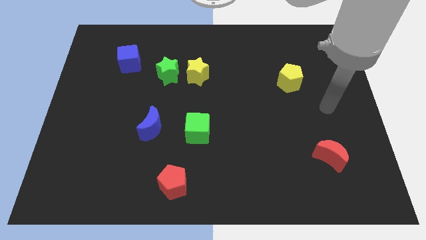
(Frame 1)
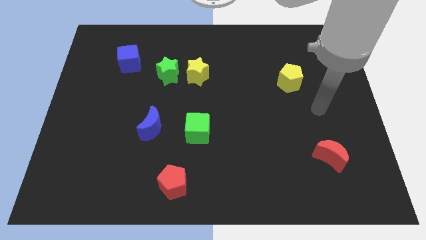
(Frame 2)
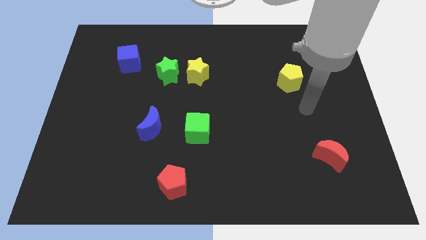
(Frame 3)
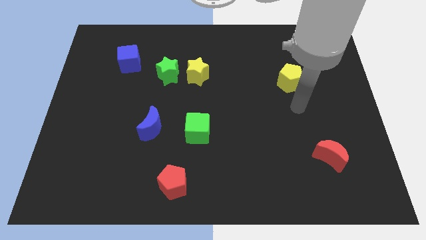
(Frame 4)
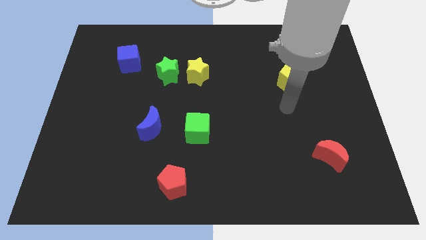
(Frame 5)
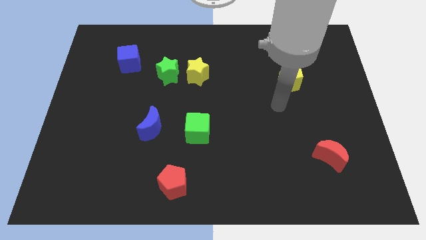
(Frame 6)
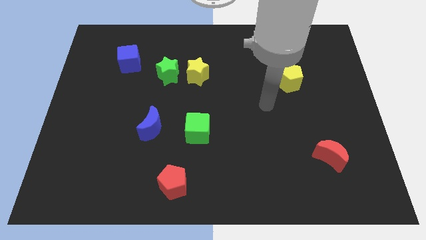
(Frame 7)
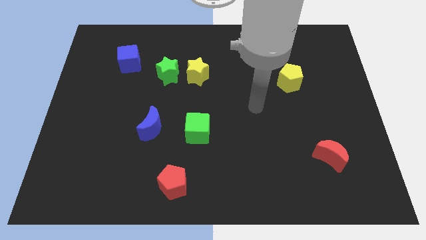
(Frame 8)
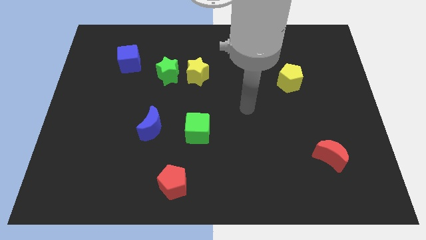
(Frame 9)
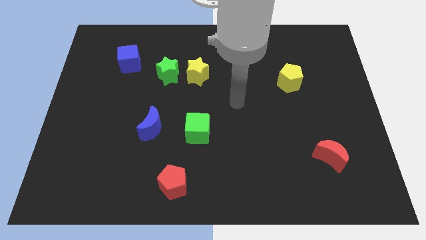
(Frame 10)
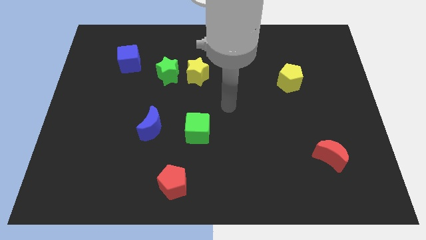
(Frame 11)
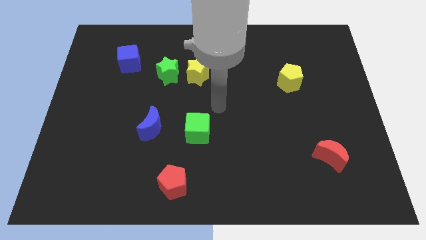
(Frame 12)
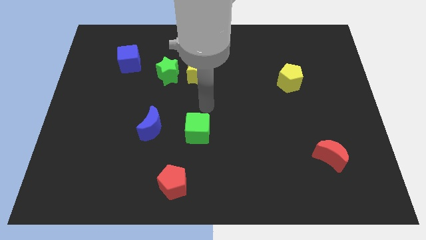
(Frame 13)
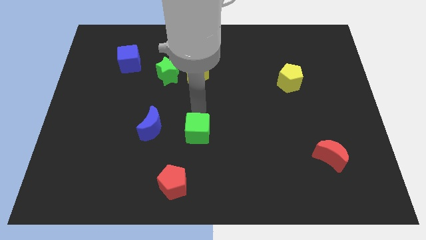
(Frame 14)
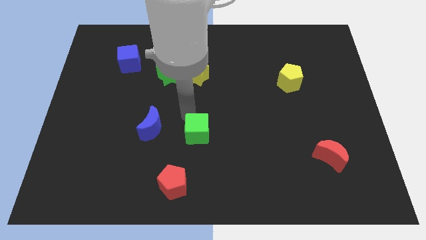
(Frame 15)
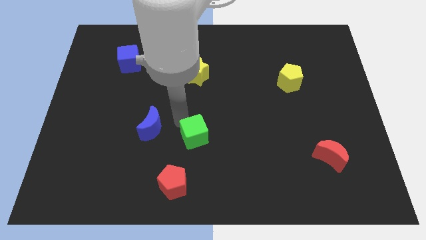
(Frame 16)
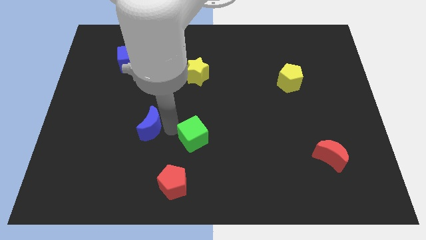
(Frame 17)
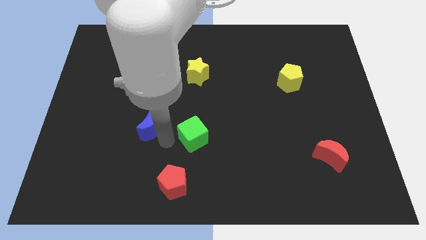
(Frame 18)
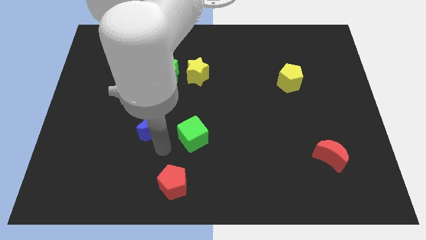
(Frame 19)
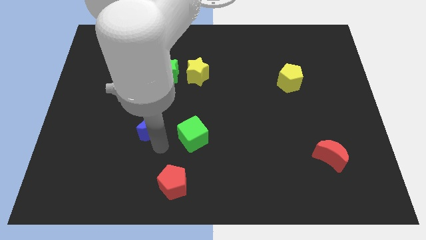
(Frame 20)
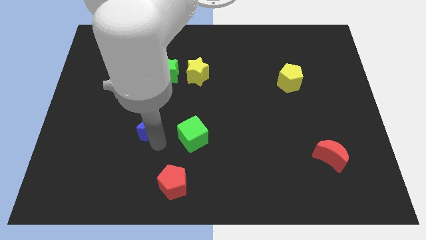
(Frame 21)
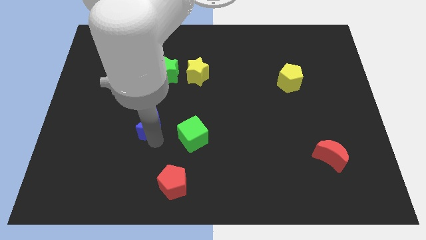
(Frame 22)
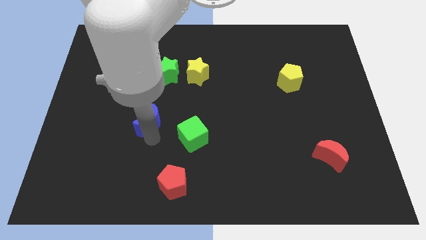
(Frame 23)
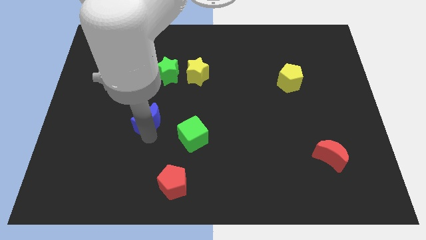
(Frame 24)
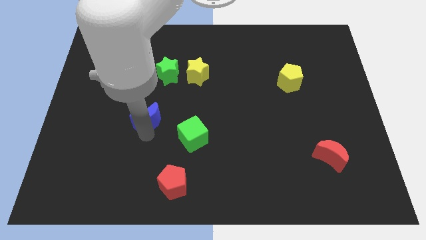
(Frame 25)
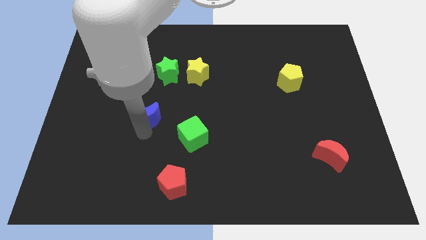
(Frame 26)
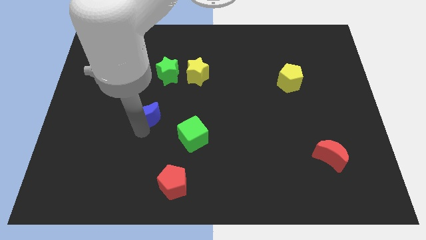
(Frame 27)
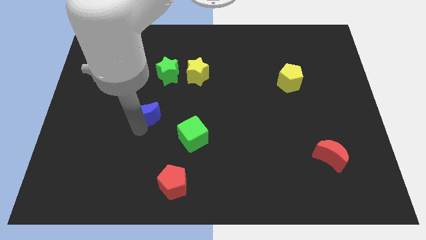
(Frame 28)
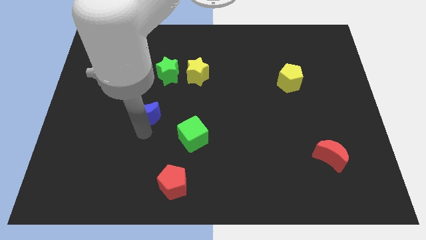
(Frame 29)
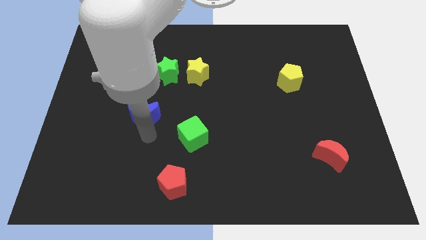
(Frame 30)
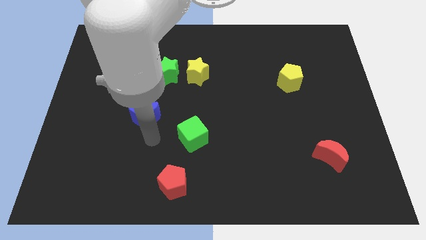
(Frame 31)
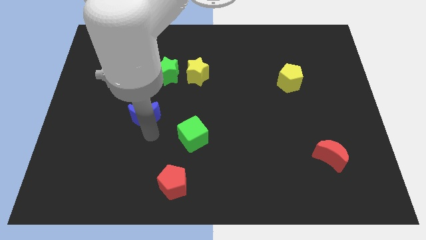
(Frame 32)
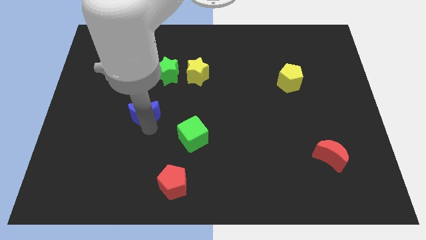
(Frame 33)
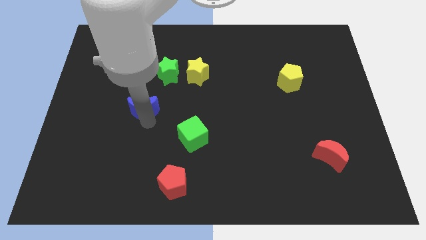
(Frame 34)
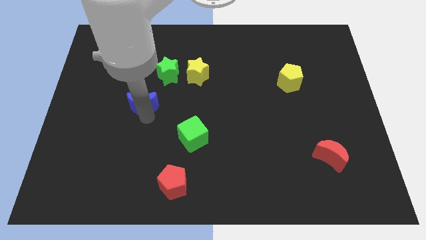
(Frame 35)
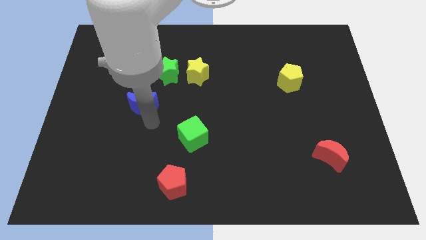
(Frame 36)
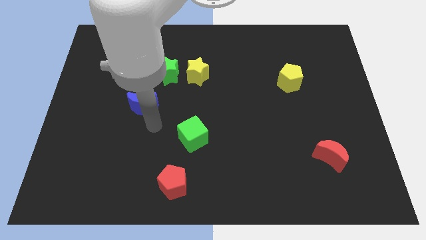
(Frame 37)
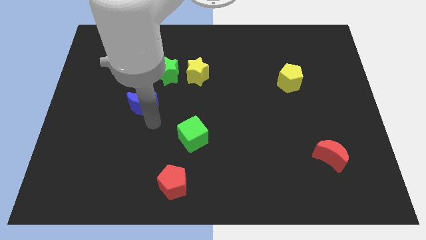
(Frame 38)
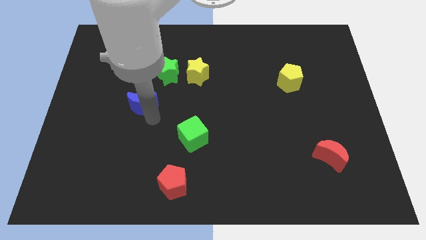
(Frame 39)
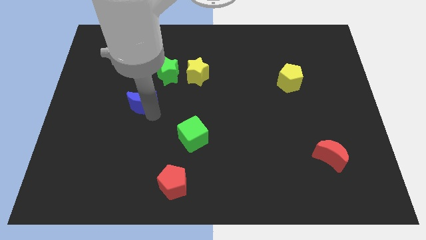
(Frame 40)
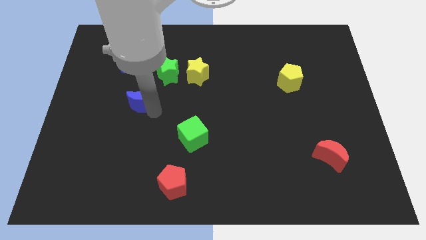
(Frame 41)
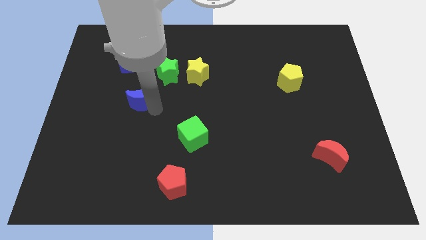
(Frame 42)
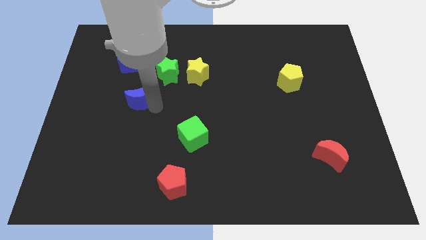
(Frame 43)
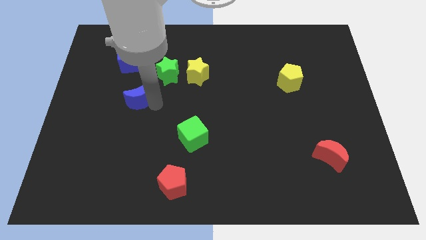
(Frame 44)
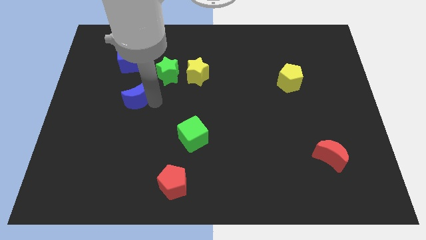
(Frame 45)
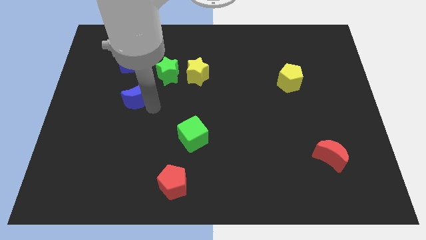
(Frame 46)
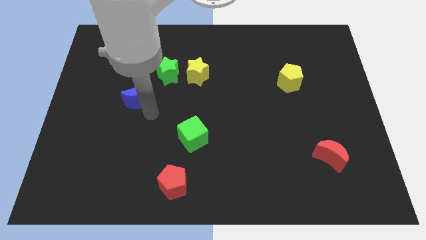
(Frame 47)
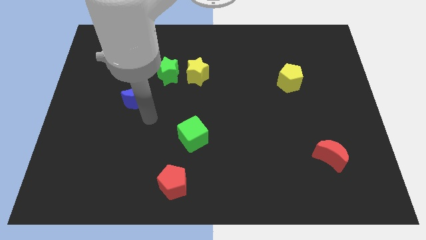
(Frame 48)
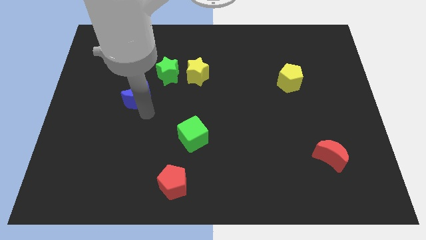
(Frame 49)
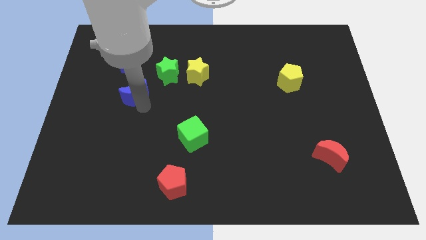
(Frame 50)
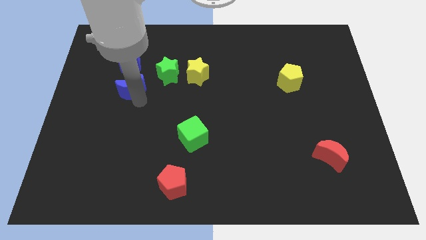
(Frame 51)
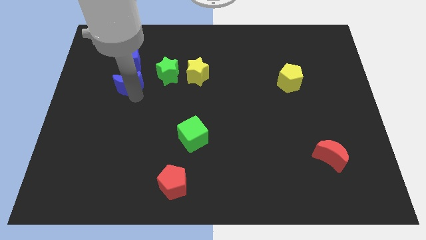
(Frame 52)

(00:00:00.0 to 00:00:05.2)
push the blue moon to the left side of the green star

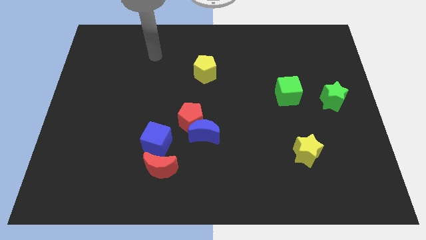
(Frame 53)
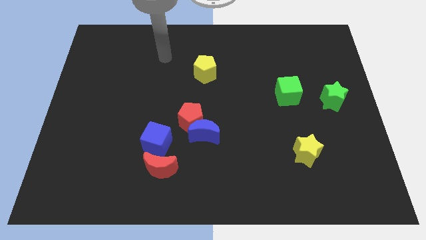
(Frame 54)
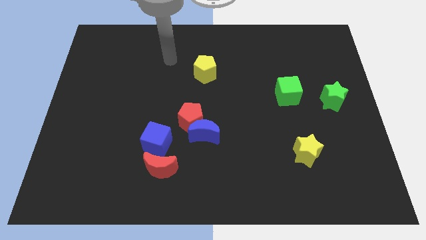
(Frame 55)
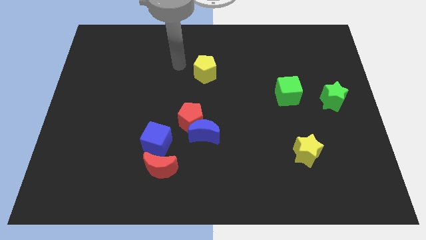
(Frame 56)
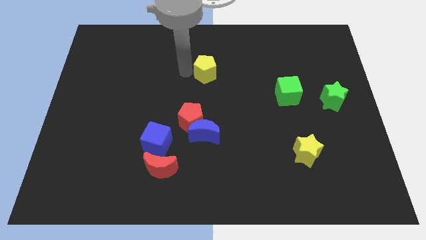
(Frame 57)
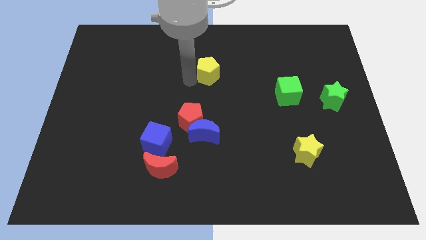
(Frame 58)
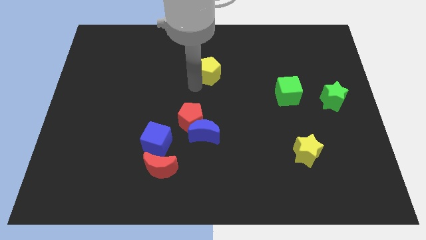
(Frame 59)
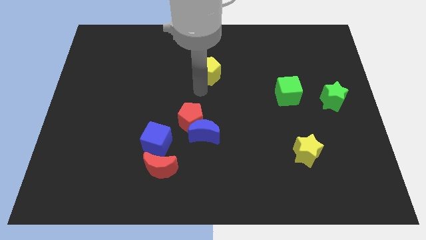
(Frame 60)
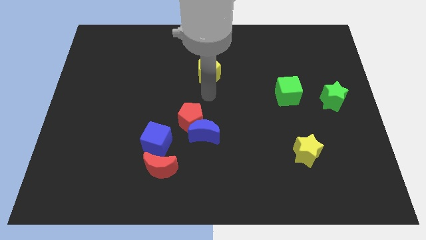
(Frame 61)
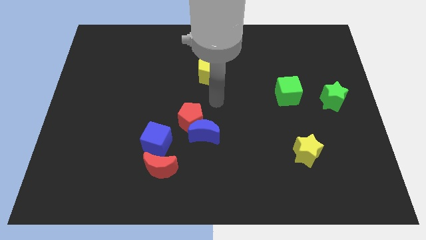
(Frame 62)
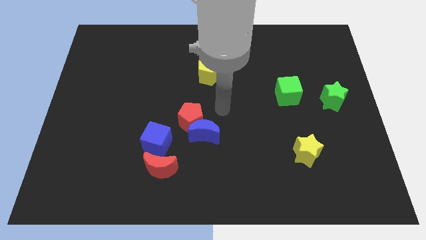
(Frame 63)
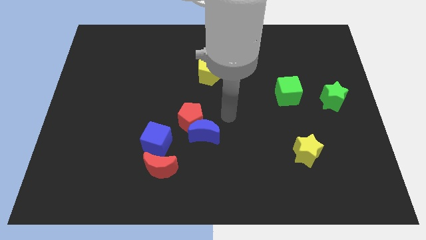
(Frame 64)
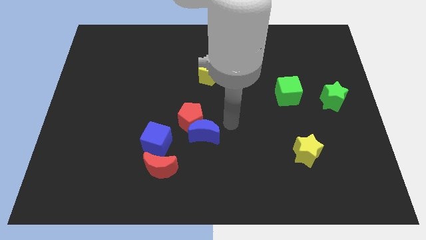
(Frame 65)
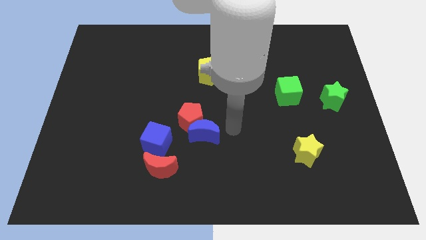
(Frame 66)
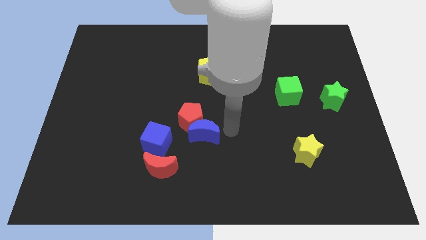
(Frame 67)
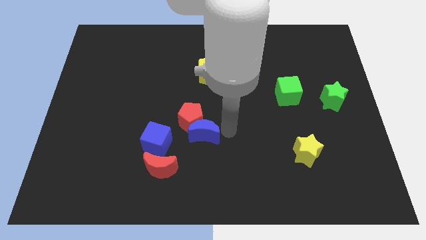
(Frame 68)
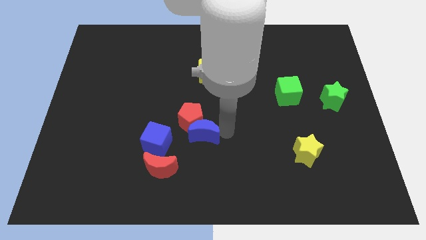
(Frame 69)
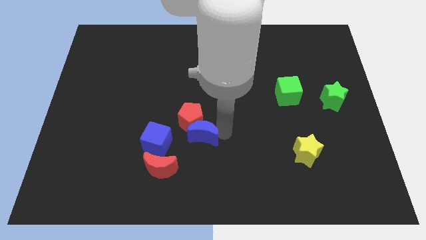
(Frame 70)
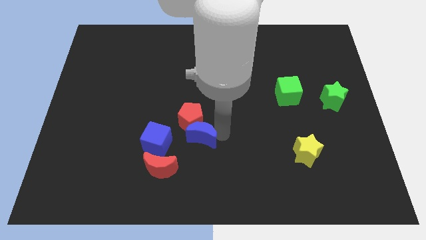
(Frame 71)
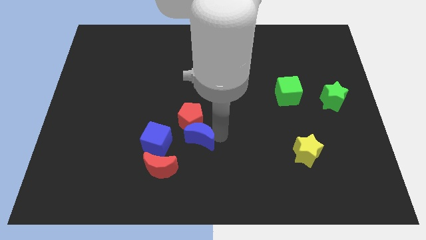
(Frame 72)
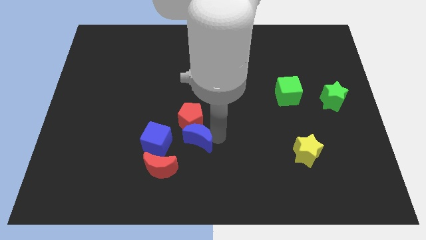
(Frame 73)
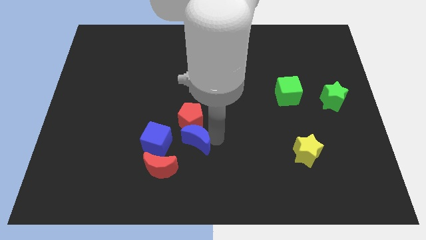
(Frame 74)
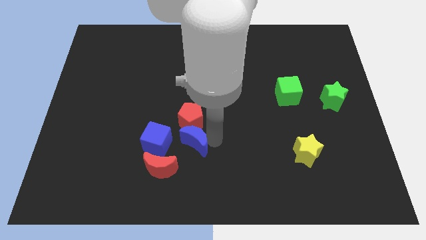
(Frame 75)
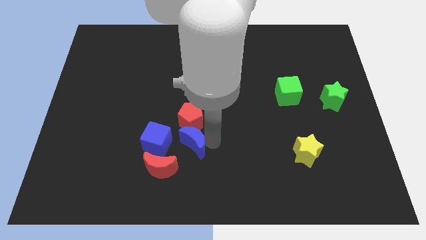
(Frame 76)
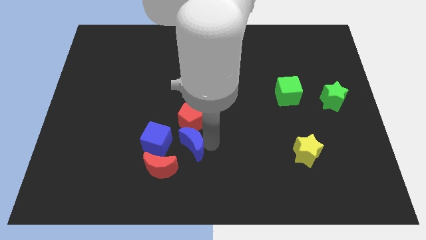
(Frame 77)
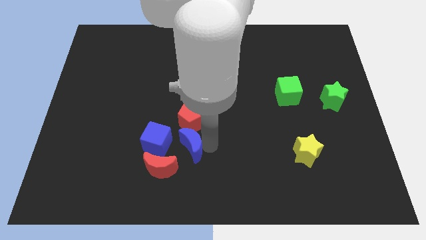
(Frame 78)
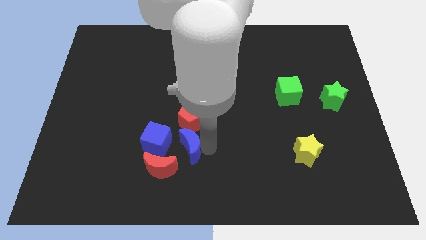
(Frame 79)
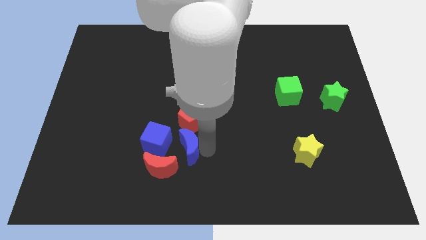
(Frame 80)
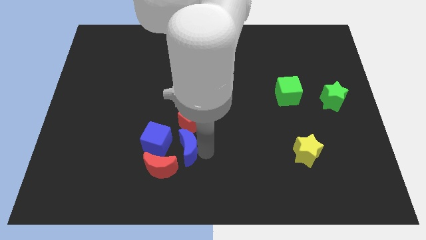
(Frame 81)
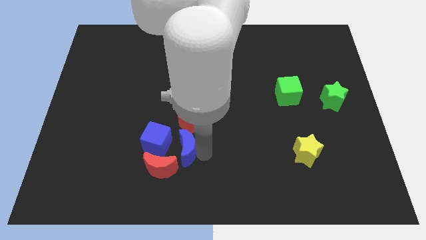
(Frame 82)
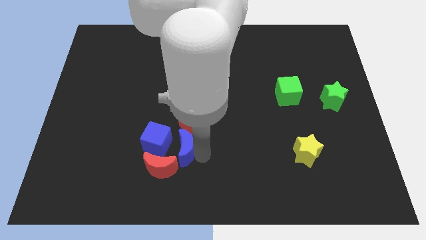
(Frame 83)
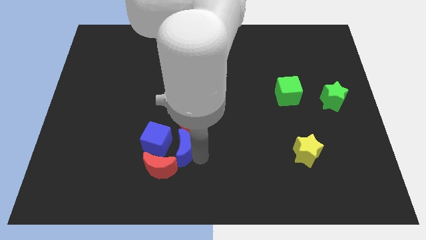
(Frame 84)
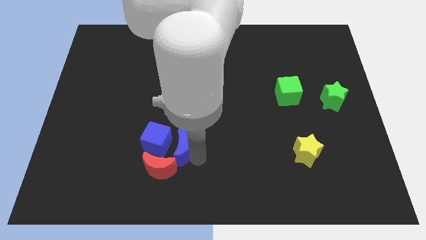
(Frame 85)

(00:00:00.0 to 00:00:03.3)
move the blue moon to the top side of the red moon
